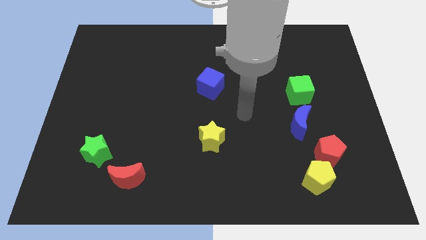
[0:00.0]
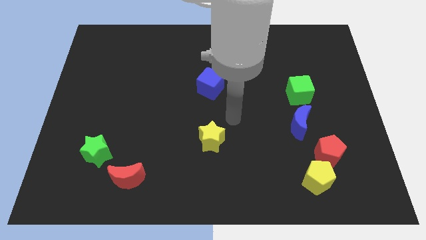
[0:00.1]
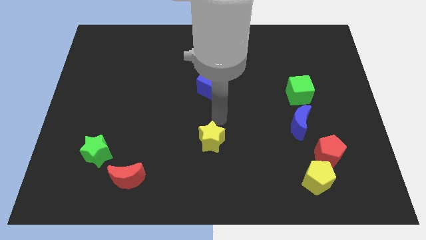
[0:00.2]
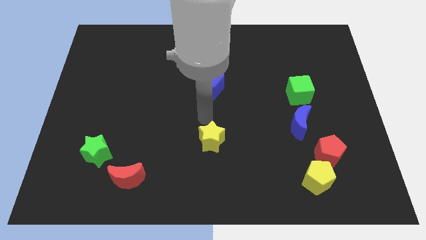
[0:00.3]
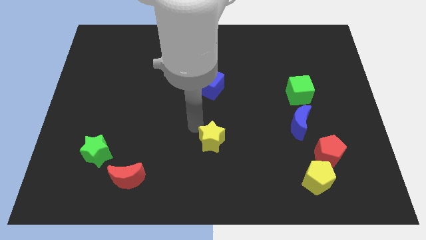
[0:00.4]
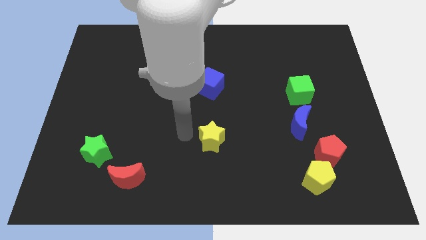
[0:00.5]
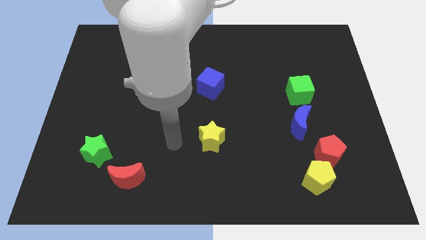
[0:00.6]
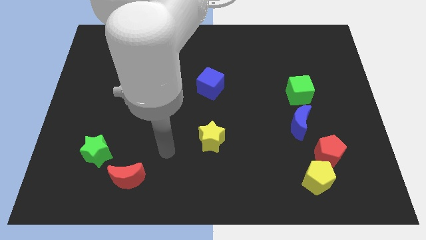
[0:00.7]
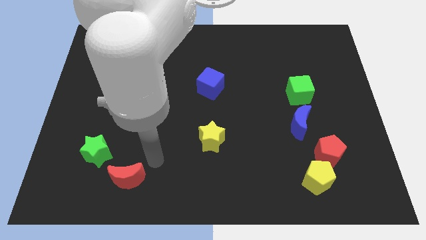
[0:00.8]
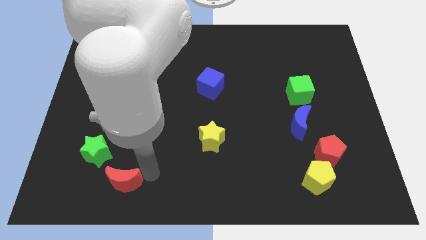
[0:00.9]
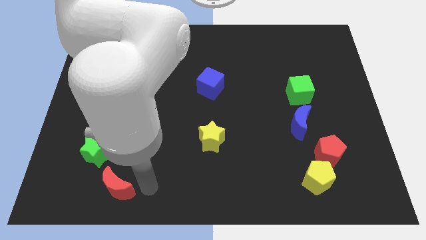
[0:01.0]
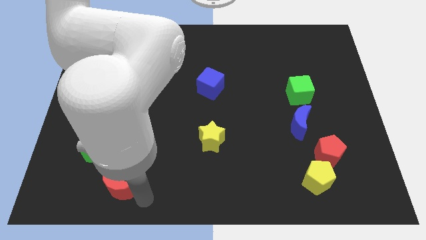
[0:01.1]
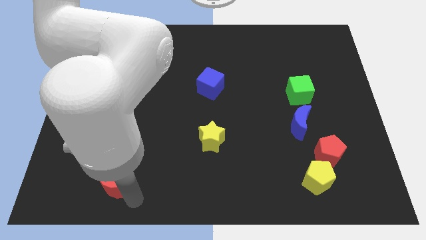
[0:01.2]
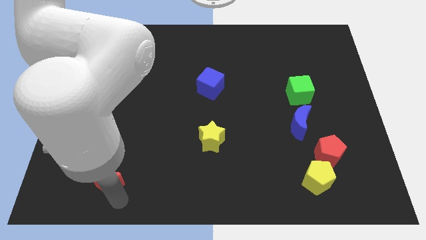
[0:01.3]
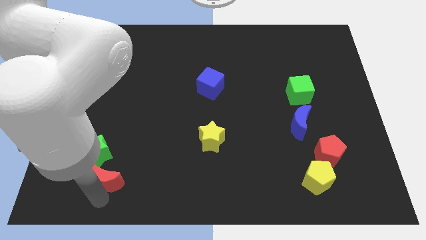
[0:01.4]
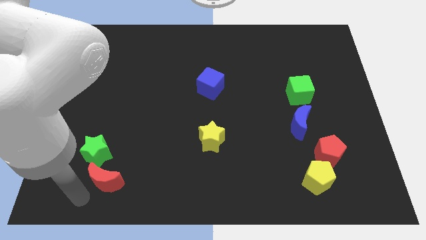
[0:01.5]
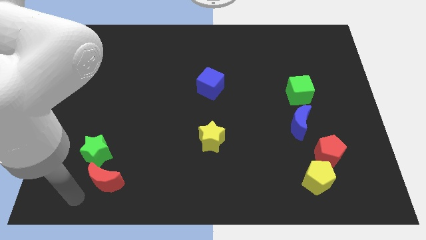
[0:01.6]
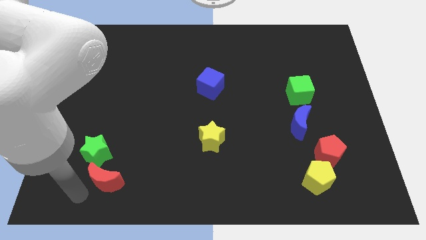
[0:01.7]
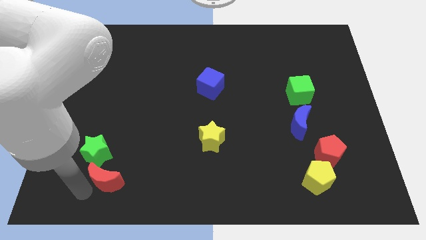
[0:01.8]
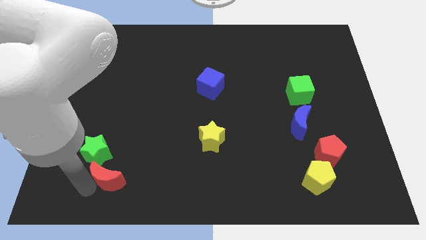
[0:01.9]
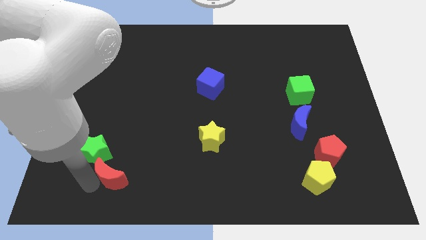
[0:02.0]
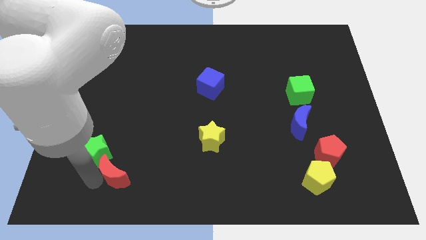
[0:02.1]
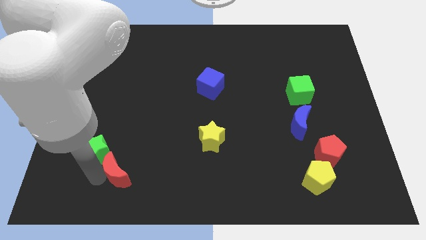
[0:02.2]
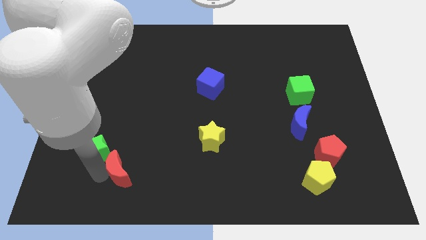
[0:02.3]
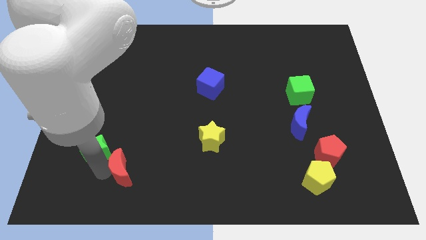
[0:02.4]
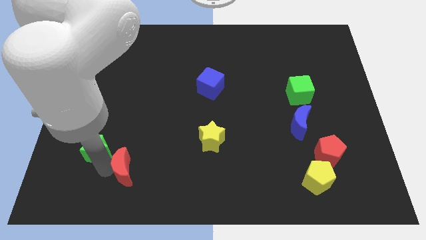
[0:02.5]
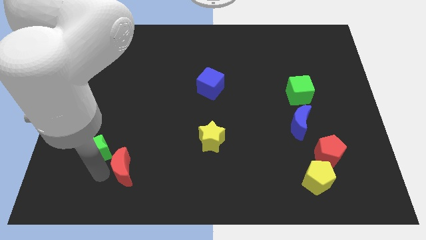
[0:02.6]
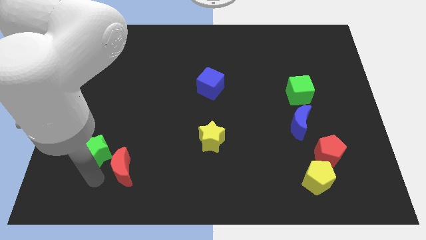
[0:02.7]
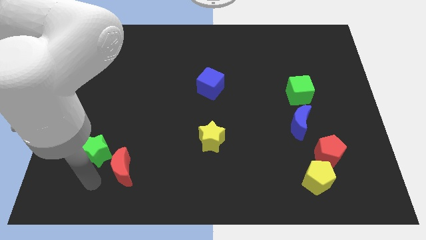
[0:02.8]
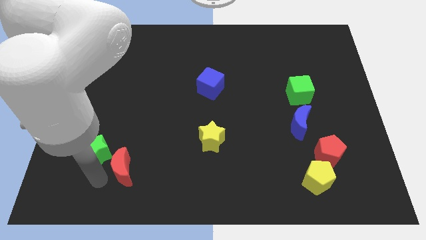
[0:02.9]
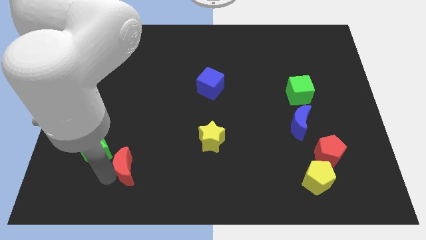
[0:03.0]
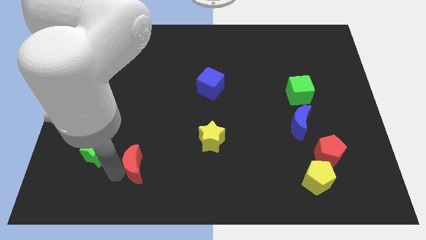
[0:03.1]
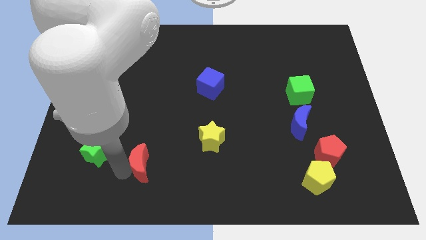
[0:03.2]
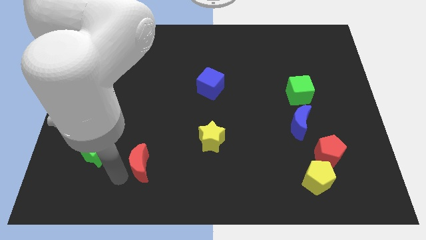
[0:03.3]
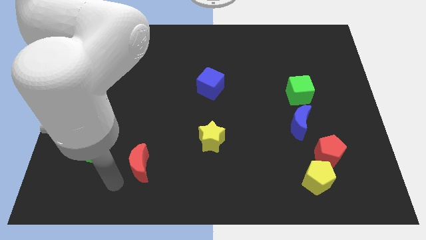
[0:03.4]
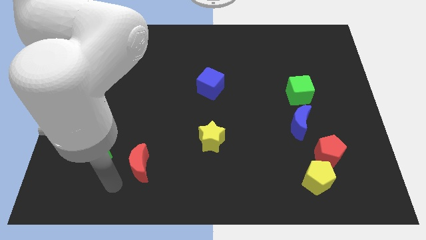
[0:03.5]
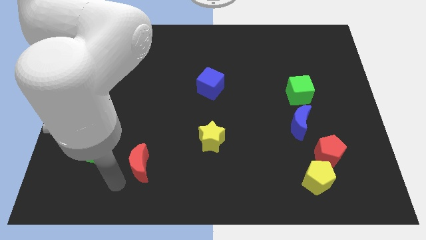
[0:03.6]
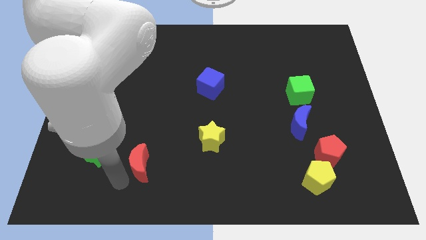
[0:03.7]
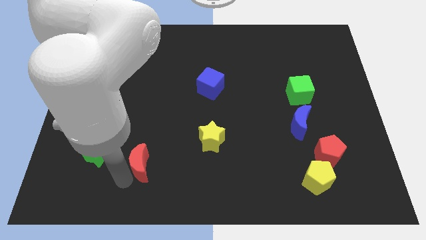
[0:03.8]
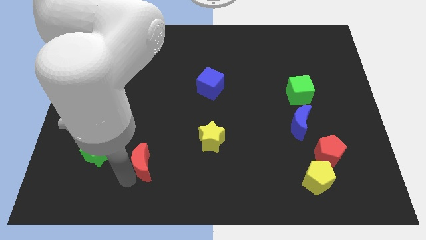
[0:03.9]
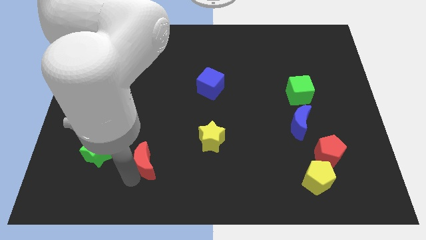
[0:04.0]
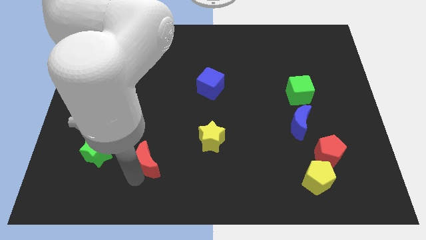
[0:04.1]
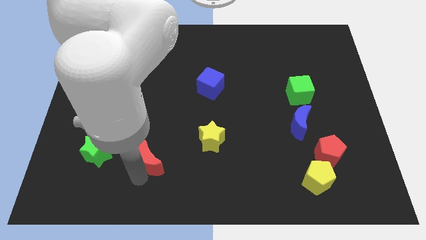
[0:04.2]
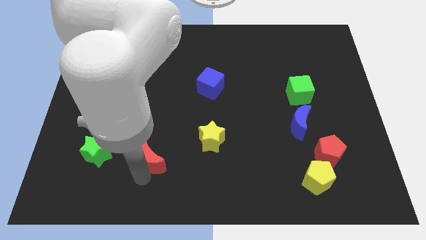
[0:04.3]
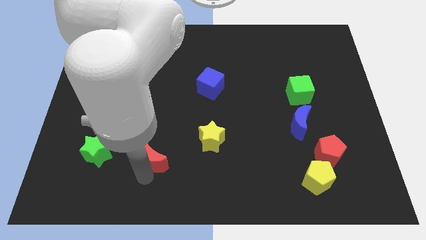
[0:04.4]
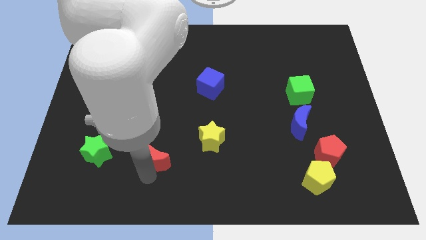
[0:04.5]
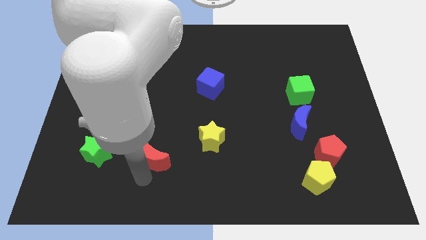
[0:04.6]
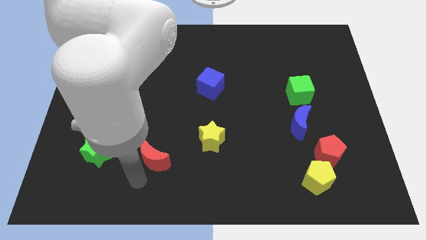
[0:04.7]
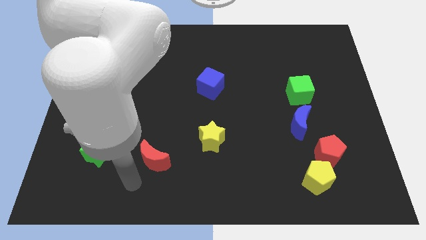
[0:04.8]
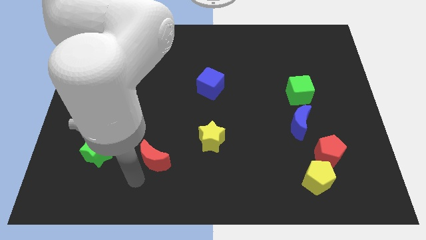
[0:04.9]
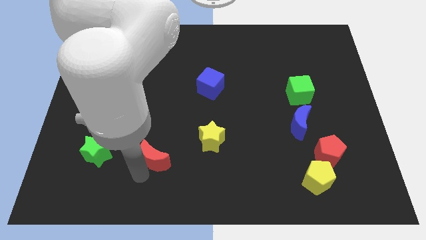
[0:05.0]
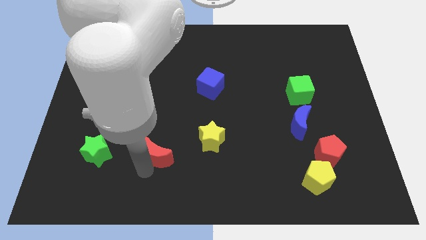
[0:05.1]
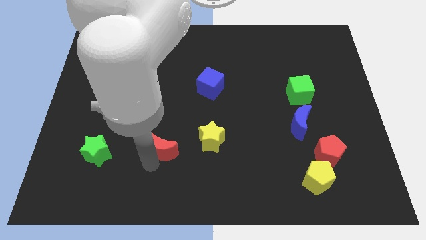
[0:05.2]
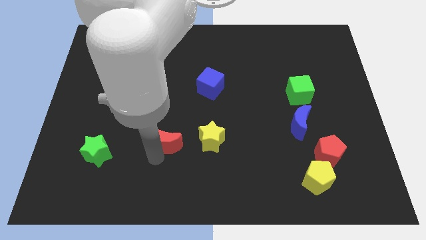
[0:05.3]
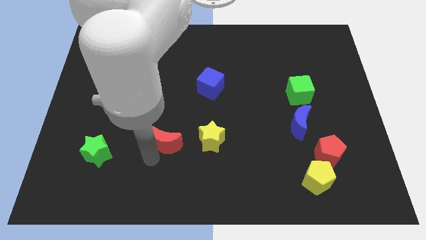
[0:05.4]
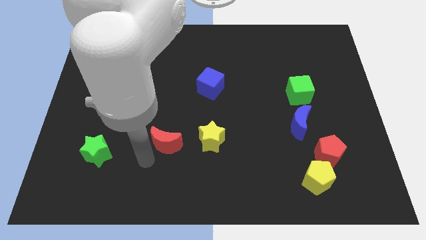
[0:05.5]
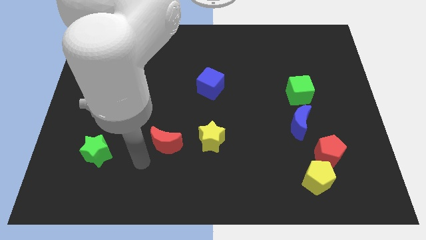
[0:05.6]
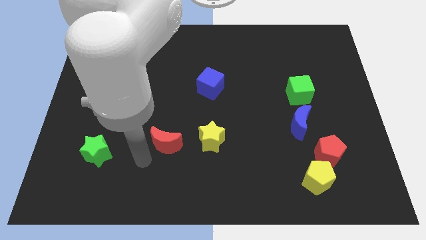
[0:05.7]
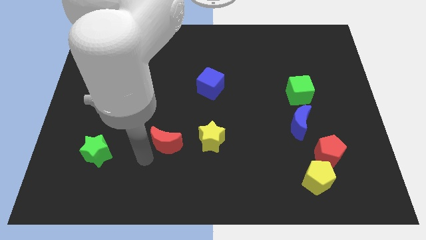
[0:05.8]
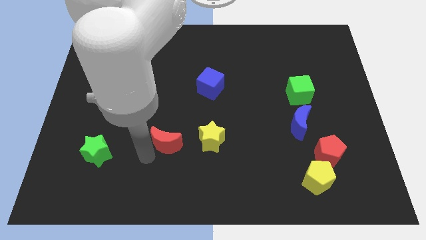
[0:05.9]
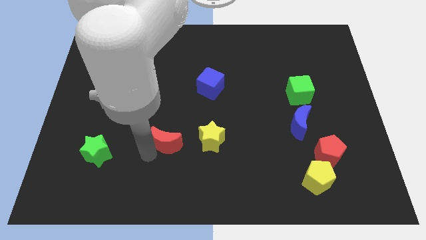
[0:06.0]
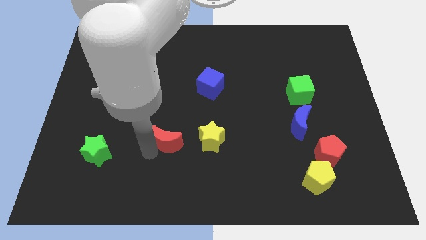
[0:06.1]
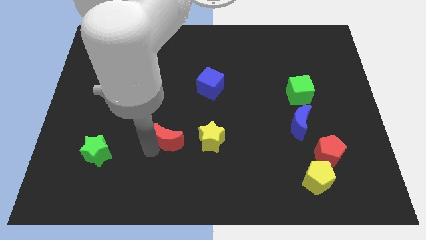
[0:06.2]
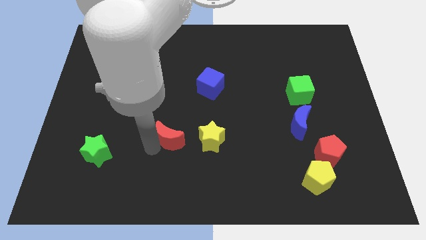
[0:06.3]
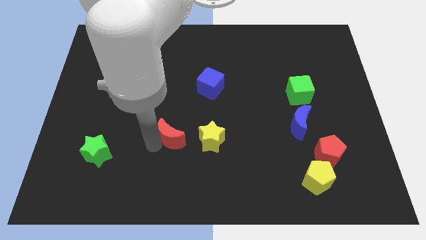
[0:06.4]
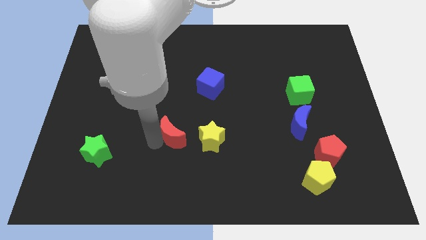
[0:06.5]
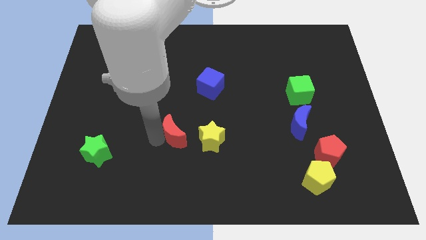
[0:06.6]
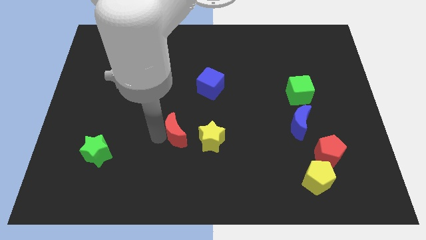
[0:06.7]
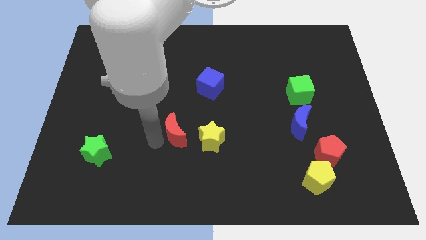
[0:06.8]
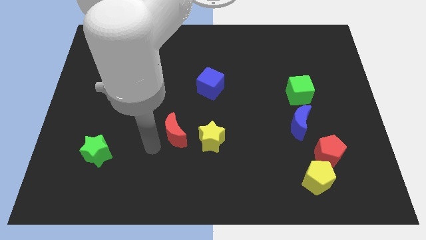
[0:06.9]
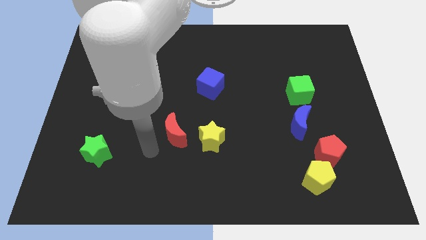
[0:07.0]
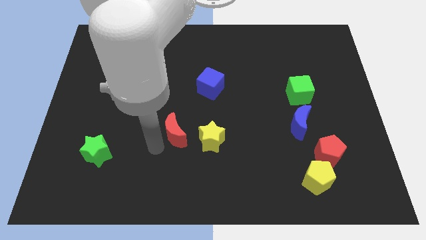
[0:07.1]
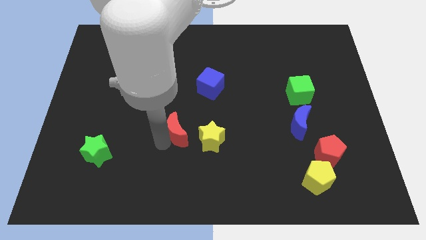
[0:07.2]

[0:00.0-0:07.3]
move the red moon to the middle

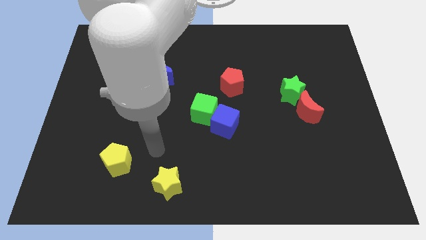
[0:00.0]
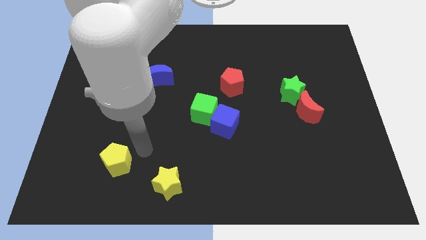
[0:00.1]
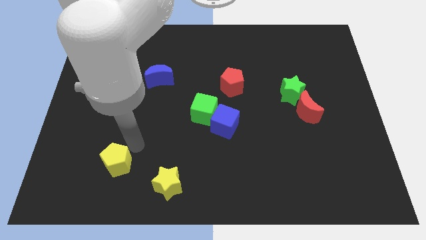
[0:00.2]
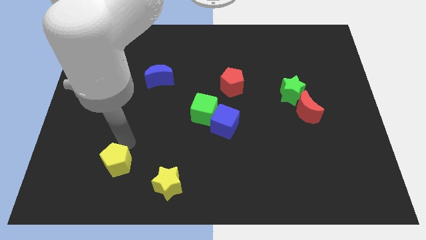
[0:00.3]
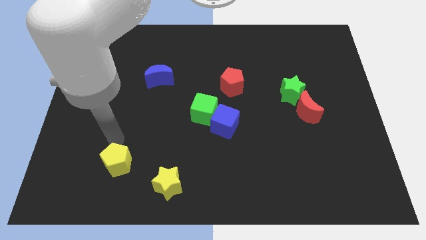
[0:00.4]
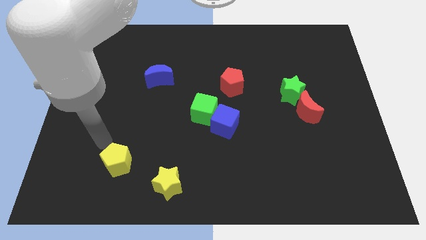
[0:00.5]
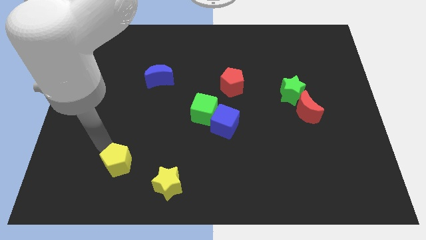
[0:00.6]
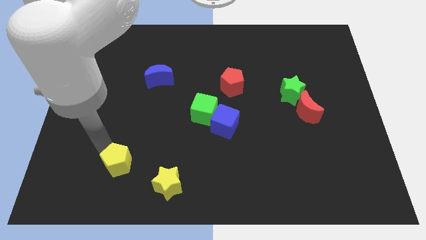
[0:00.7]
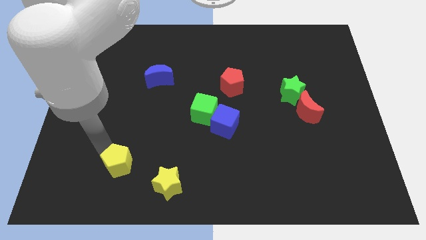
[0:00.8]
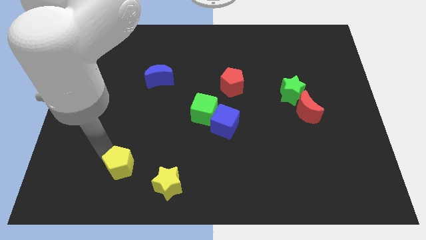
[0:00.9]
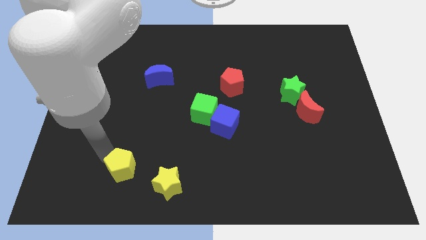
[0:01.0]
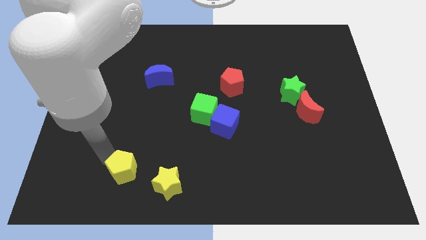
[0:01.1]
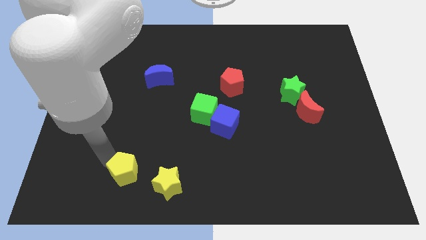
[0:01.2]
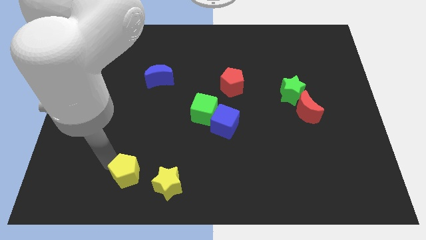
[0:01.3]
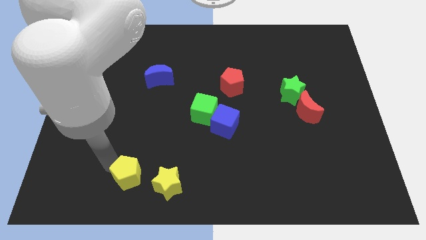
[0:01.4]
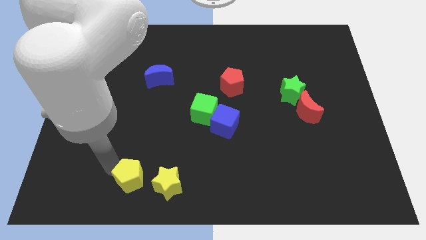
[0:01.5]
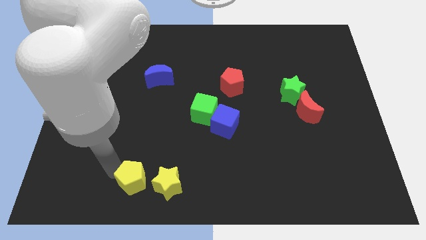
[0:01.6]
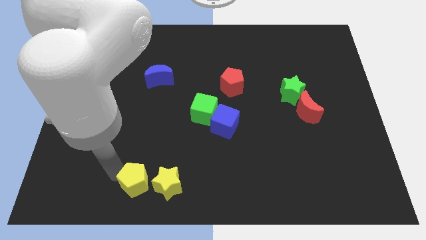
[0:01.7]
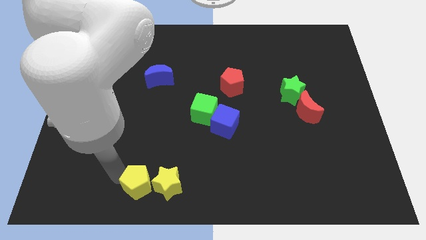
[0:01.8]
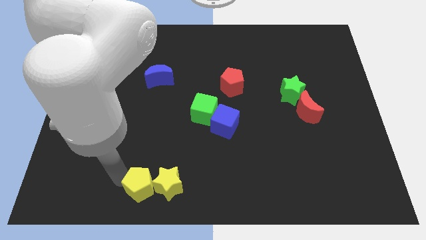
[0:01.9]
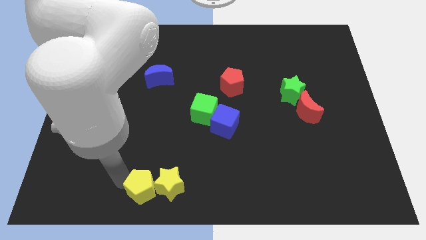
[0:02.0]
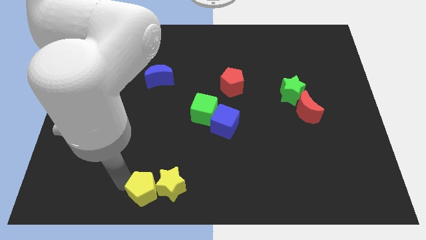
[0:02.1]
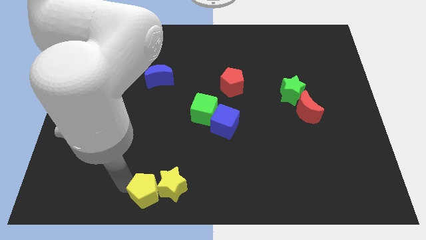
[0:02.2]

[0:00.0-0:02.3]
push the yellow pentagon to the bottom side
